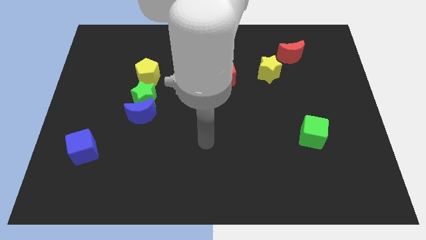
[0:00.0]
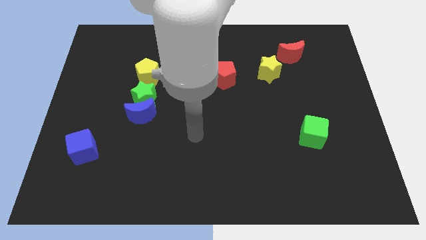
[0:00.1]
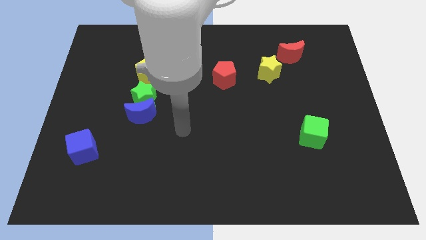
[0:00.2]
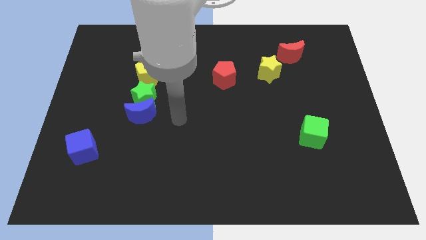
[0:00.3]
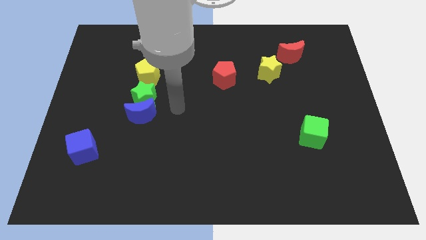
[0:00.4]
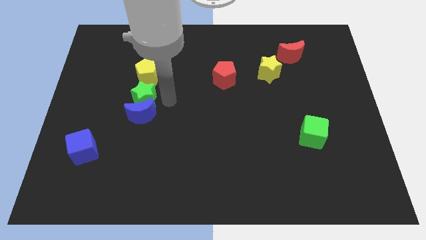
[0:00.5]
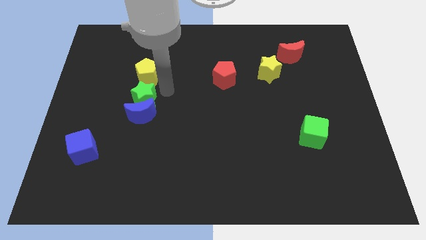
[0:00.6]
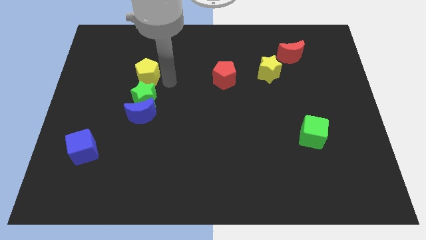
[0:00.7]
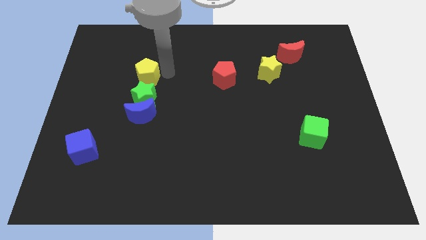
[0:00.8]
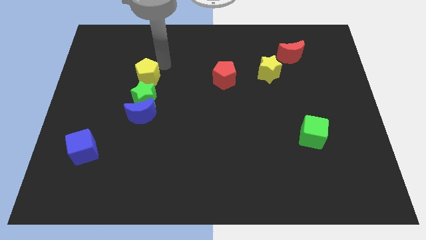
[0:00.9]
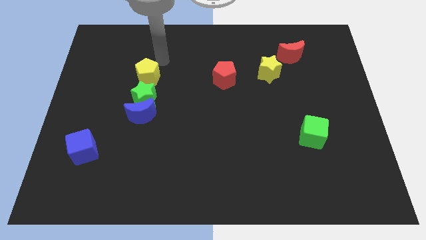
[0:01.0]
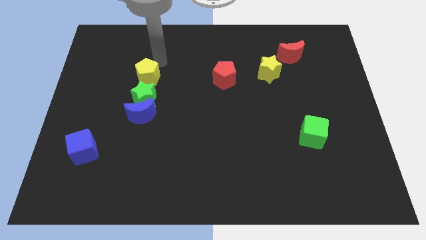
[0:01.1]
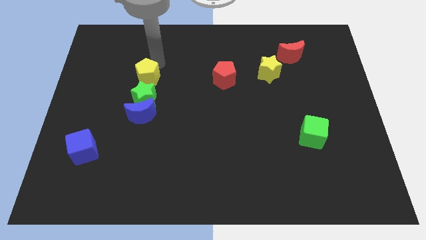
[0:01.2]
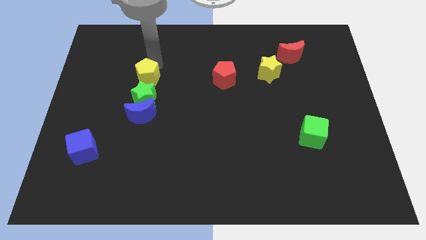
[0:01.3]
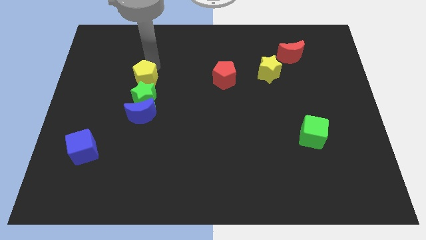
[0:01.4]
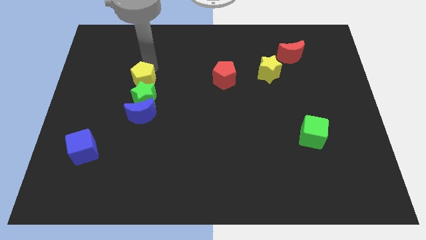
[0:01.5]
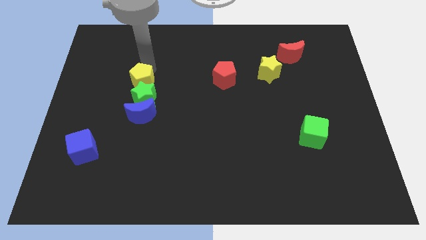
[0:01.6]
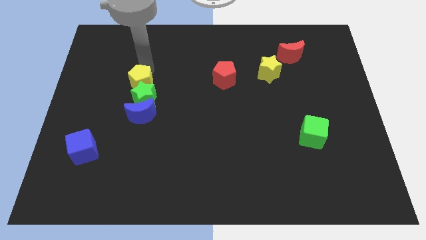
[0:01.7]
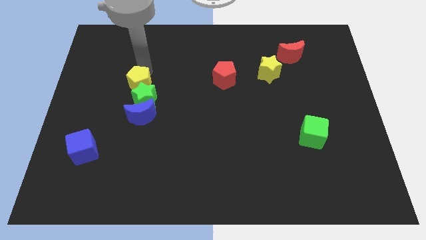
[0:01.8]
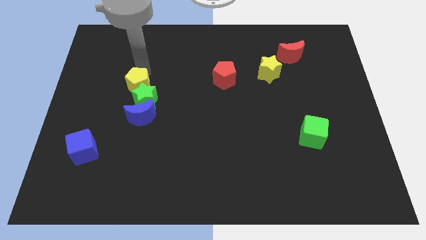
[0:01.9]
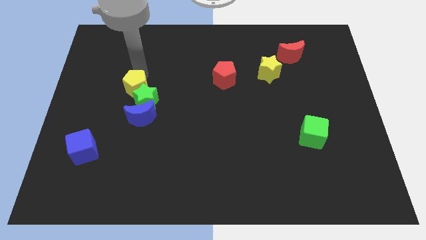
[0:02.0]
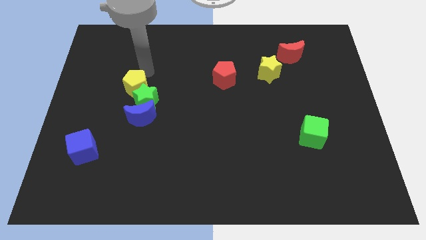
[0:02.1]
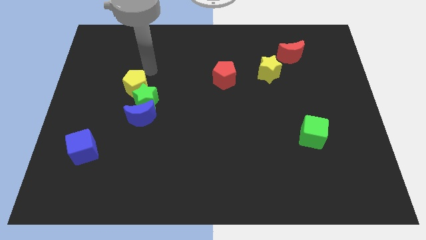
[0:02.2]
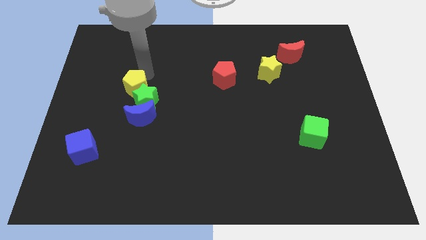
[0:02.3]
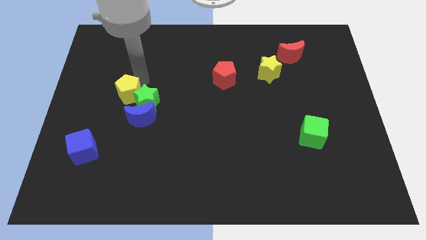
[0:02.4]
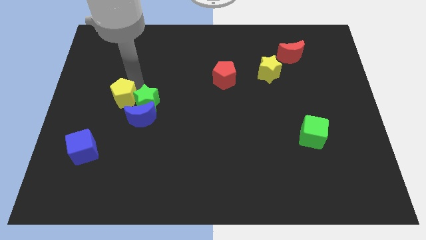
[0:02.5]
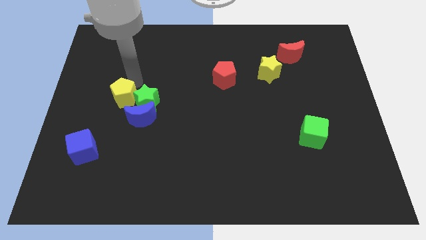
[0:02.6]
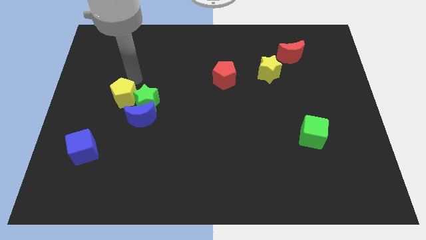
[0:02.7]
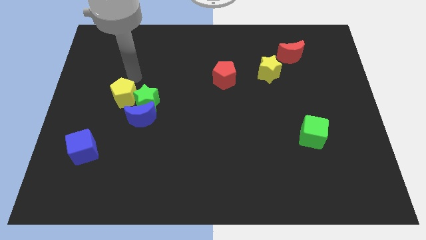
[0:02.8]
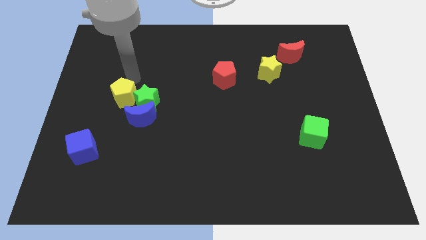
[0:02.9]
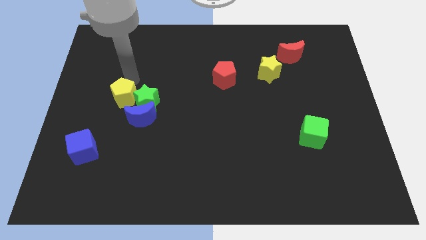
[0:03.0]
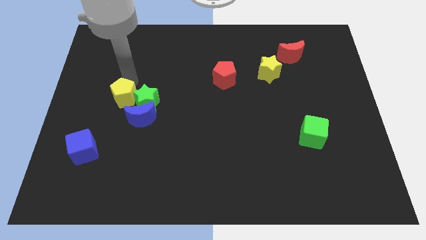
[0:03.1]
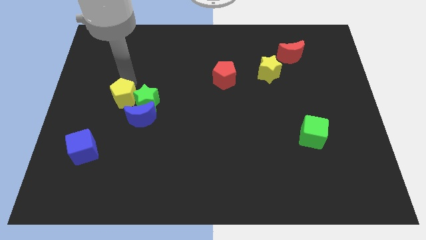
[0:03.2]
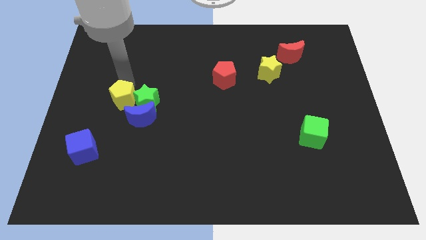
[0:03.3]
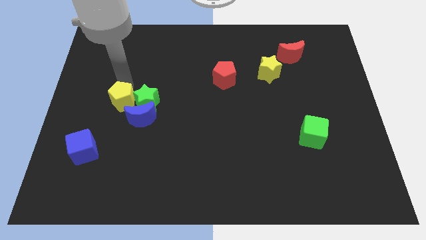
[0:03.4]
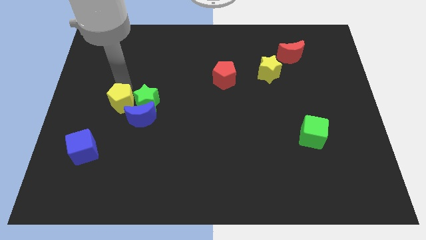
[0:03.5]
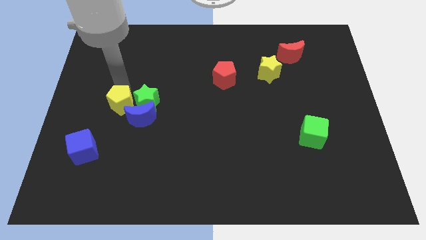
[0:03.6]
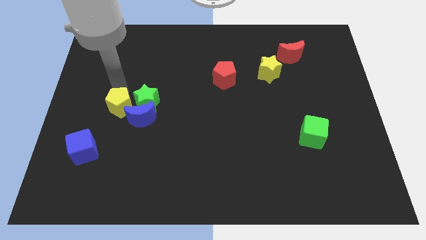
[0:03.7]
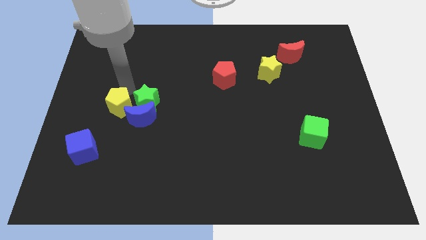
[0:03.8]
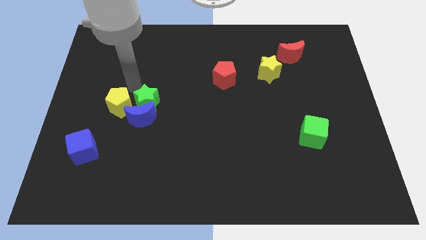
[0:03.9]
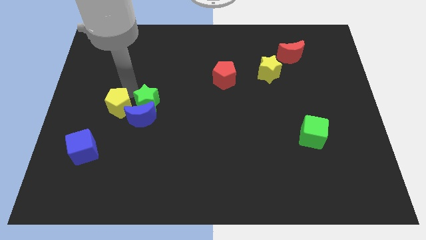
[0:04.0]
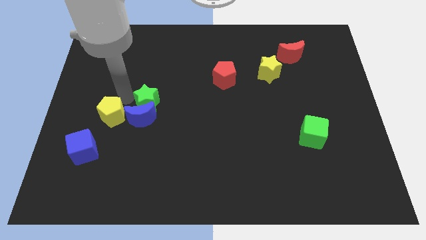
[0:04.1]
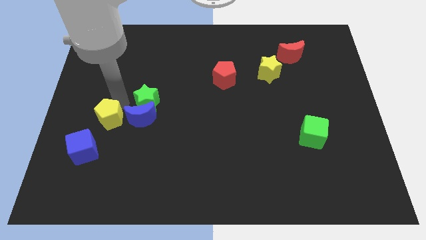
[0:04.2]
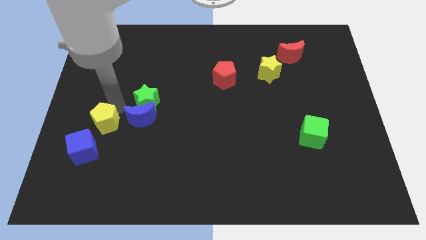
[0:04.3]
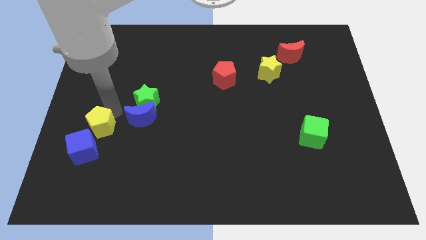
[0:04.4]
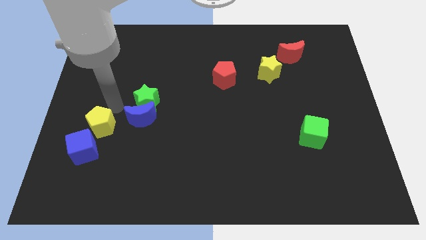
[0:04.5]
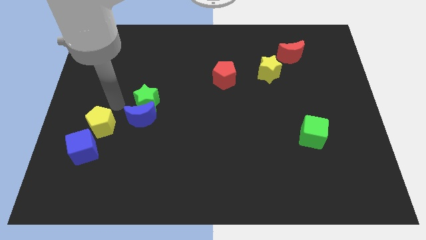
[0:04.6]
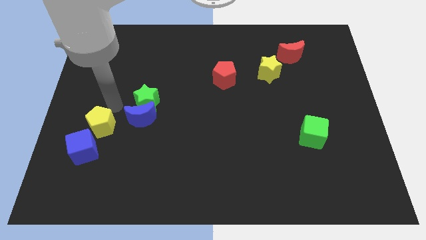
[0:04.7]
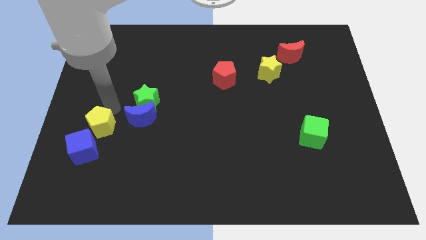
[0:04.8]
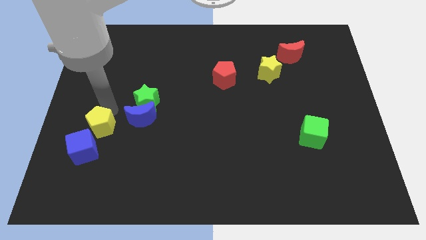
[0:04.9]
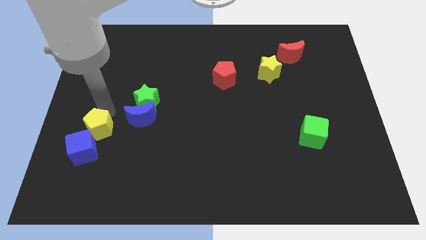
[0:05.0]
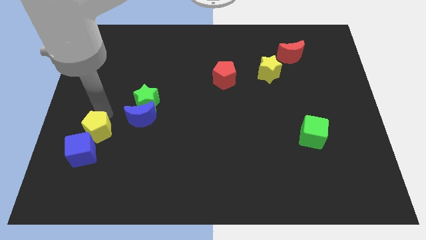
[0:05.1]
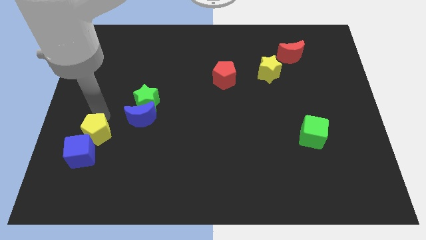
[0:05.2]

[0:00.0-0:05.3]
move the yellow pentagon next to the blue cube

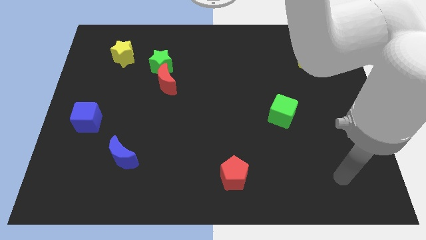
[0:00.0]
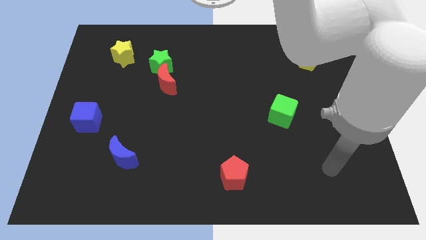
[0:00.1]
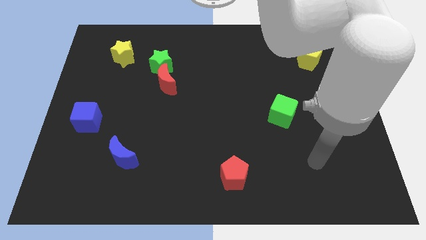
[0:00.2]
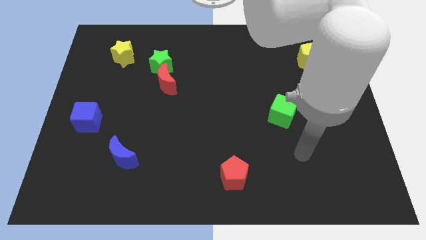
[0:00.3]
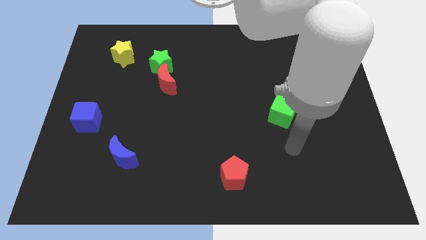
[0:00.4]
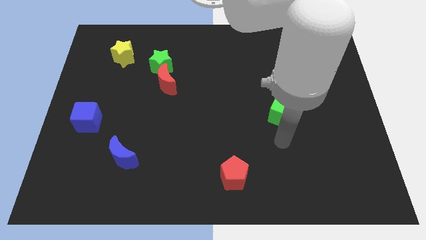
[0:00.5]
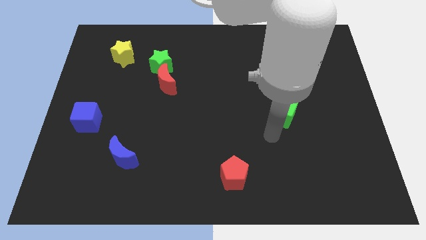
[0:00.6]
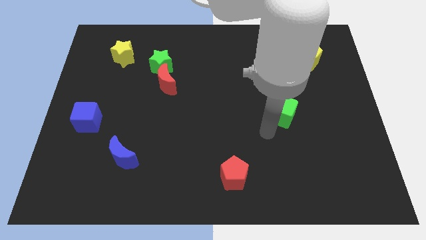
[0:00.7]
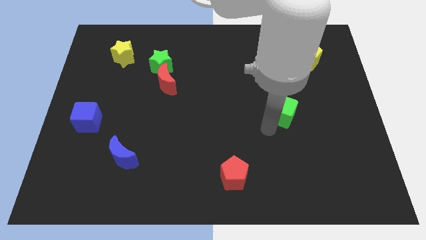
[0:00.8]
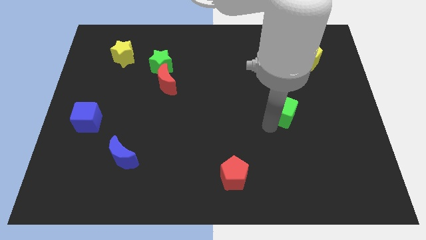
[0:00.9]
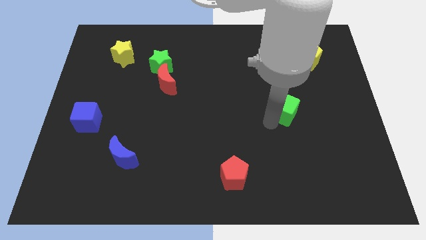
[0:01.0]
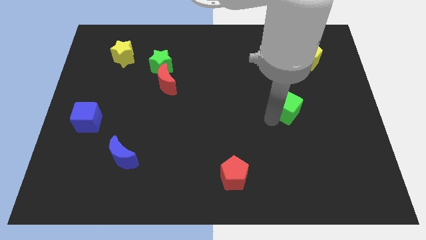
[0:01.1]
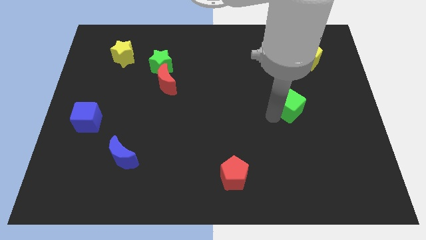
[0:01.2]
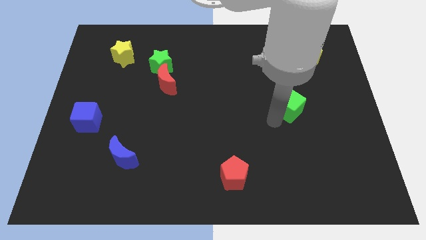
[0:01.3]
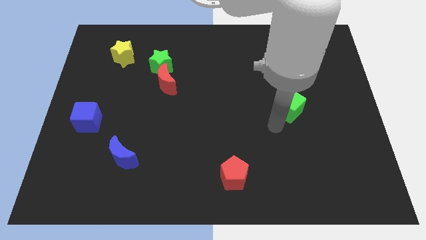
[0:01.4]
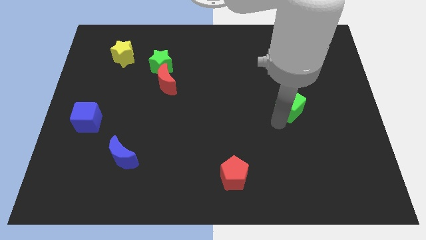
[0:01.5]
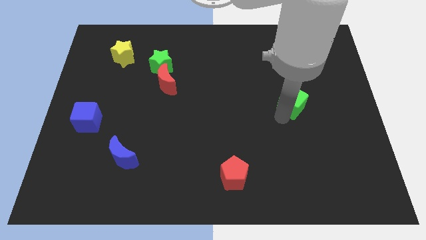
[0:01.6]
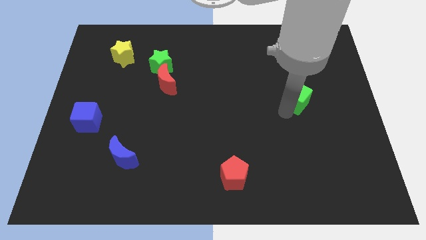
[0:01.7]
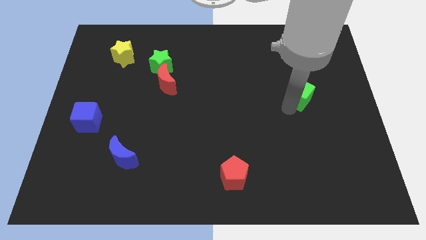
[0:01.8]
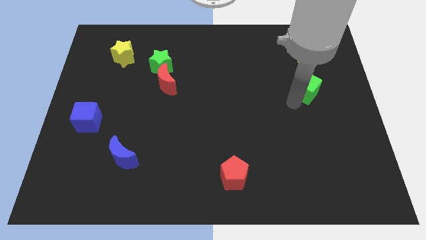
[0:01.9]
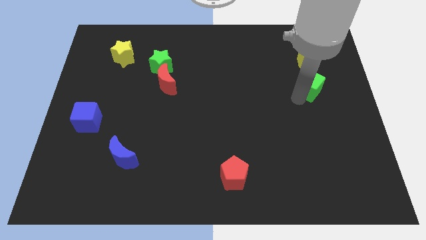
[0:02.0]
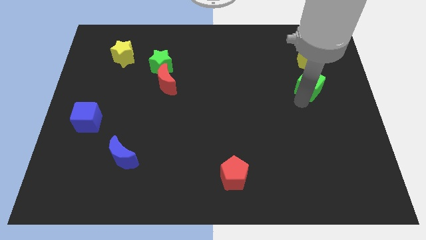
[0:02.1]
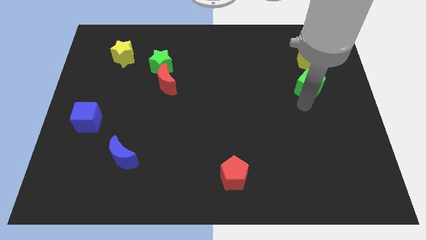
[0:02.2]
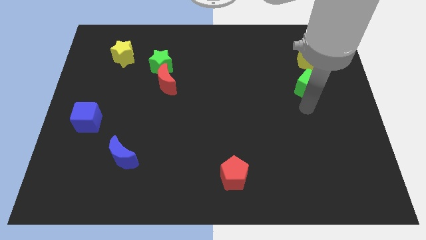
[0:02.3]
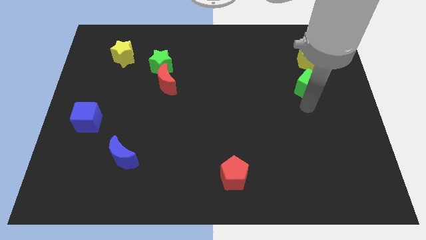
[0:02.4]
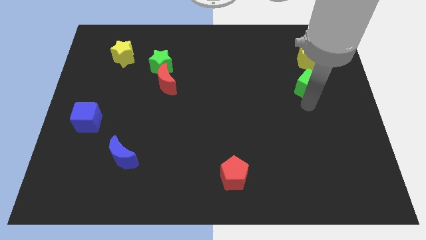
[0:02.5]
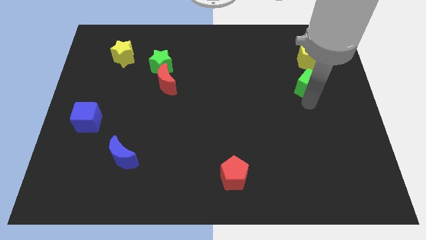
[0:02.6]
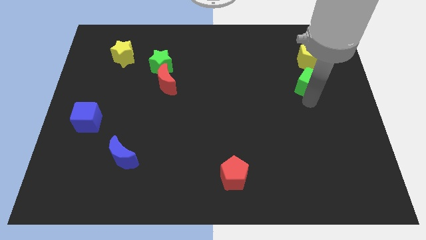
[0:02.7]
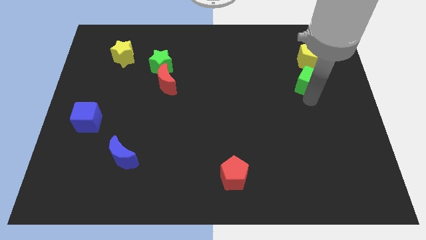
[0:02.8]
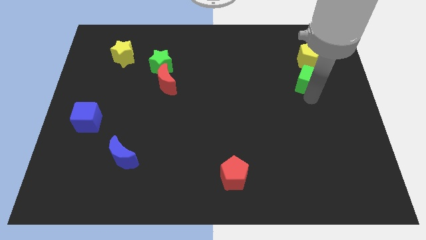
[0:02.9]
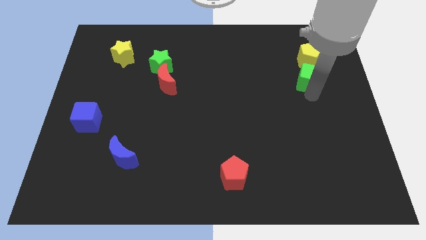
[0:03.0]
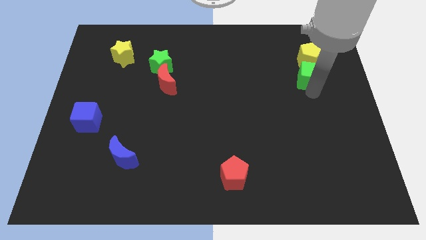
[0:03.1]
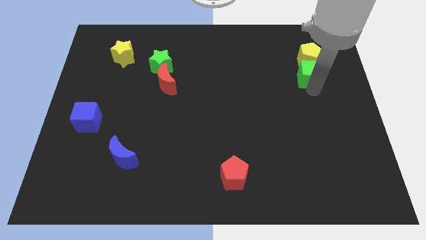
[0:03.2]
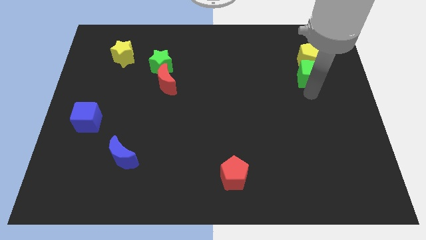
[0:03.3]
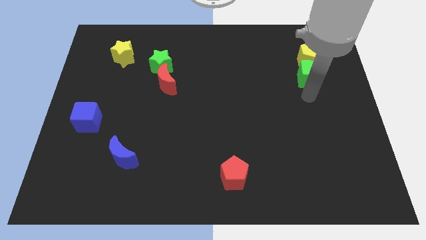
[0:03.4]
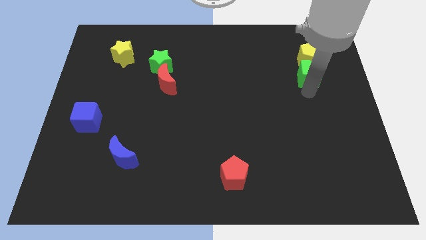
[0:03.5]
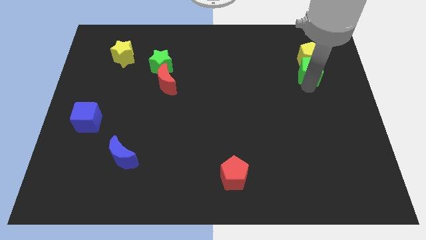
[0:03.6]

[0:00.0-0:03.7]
slide the green cube next to the yellow pentagon
